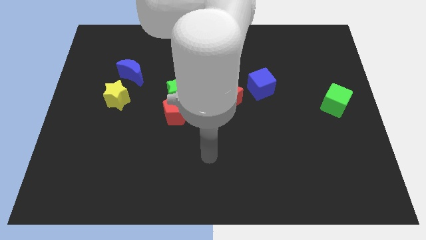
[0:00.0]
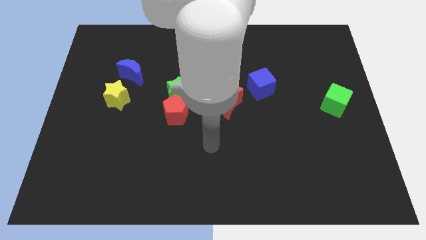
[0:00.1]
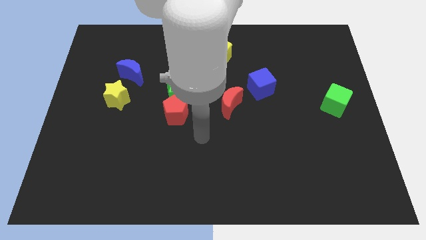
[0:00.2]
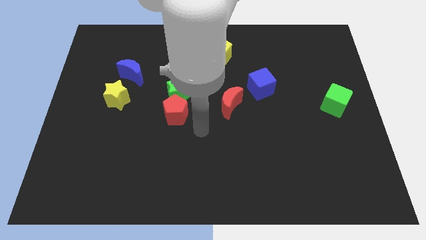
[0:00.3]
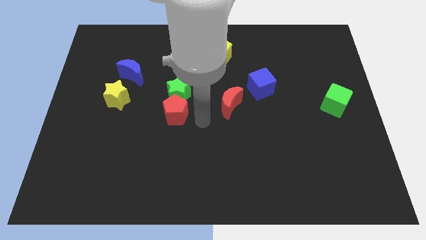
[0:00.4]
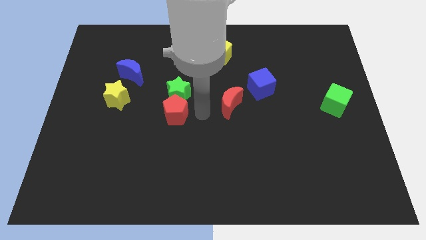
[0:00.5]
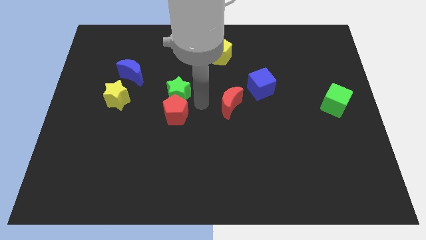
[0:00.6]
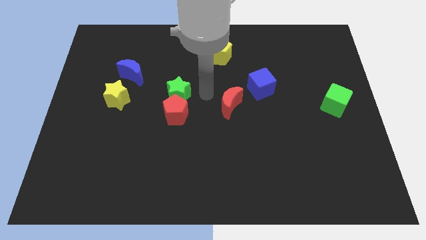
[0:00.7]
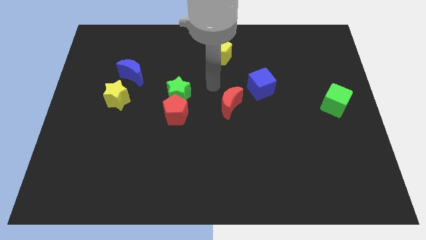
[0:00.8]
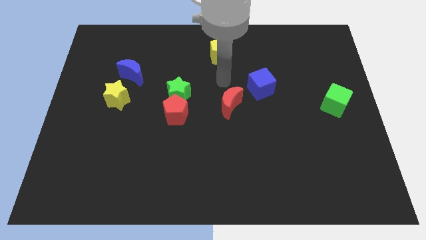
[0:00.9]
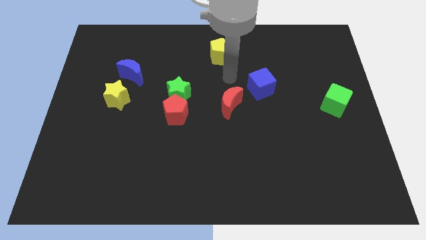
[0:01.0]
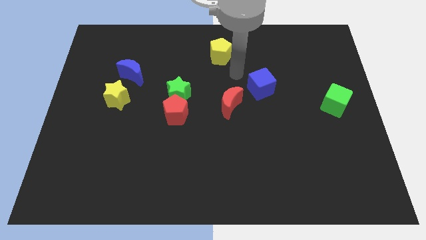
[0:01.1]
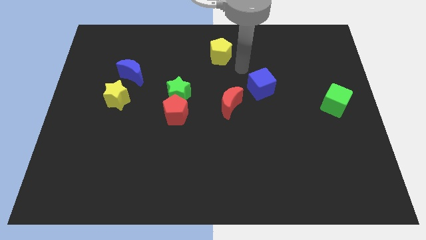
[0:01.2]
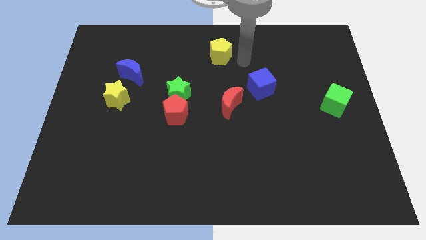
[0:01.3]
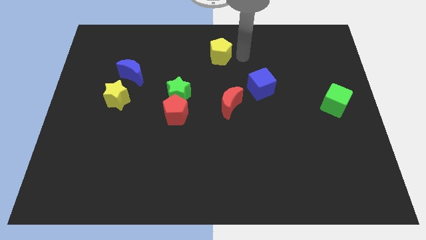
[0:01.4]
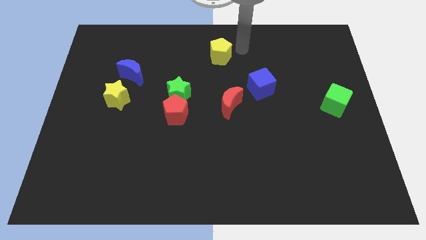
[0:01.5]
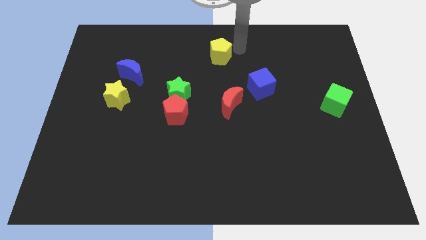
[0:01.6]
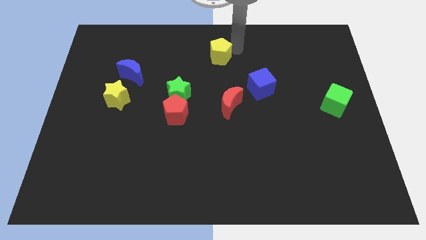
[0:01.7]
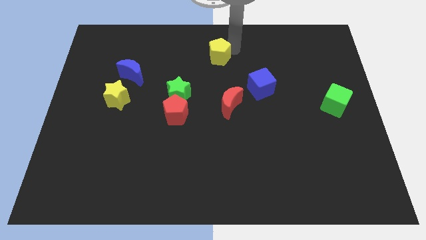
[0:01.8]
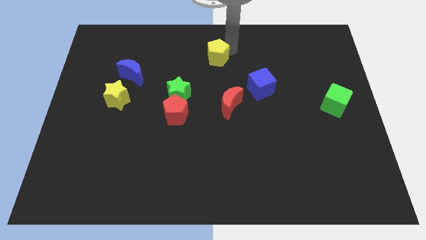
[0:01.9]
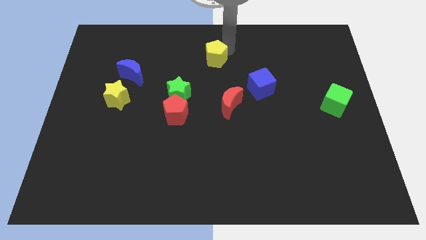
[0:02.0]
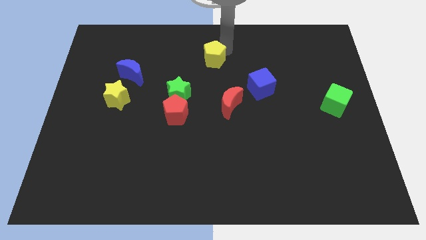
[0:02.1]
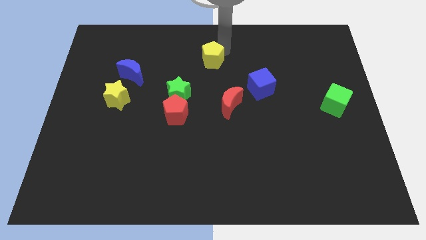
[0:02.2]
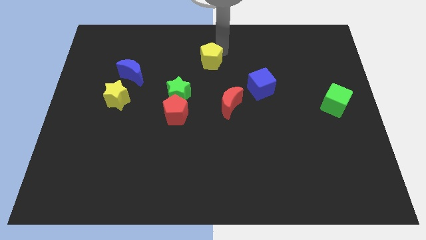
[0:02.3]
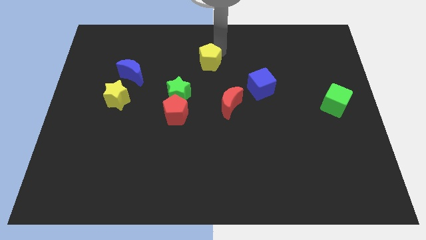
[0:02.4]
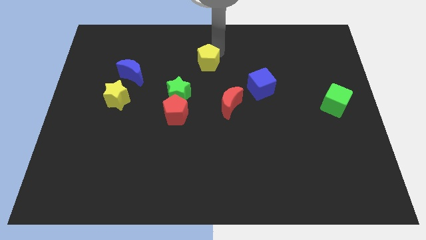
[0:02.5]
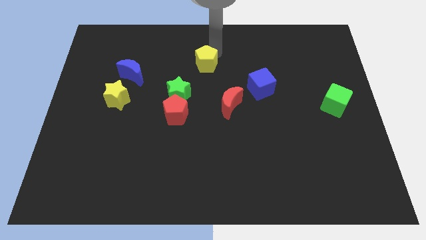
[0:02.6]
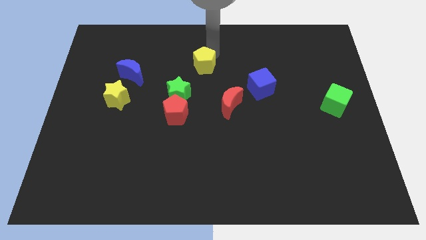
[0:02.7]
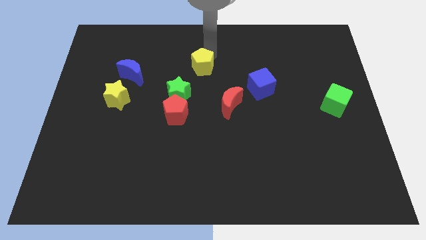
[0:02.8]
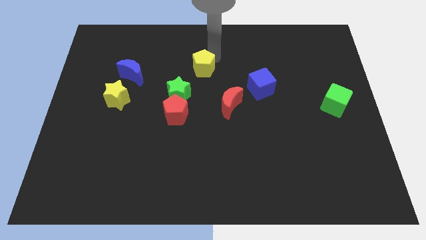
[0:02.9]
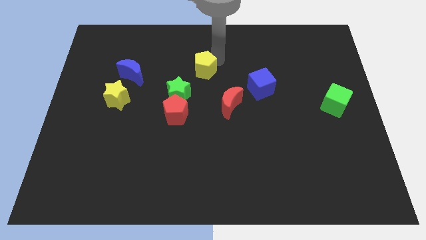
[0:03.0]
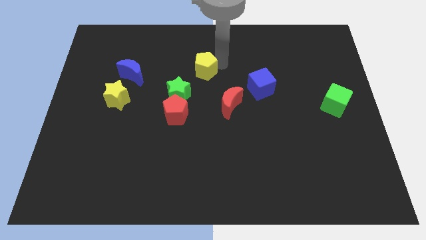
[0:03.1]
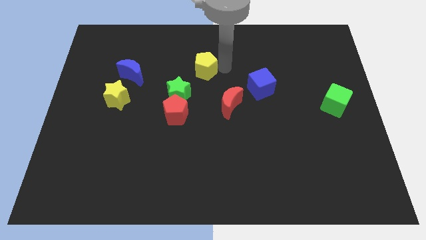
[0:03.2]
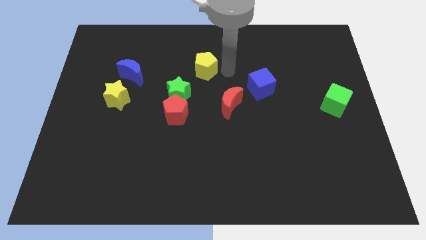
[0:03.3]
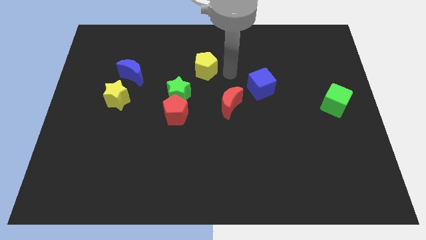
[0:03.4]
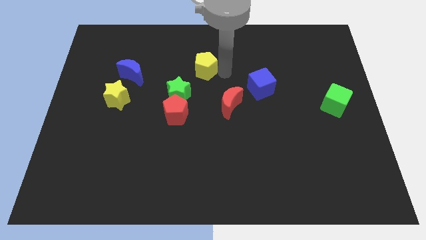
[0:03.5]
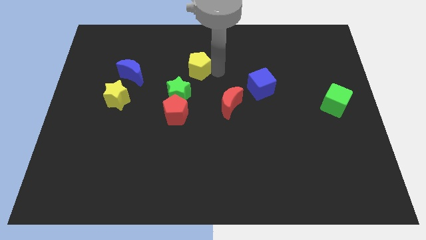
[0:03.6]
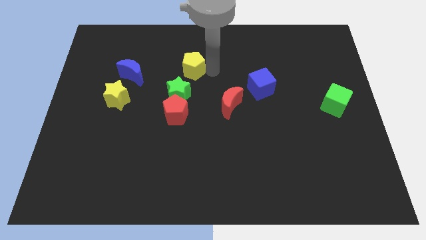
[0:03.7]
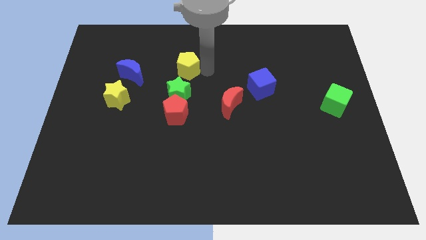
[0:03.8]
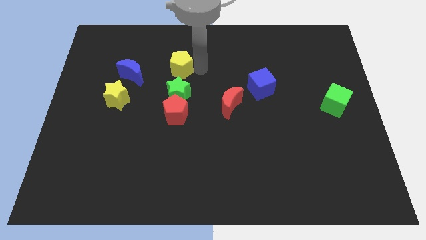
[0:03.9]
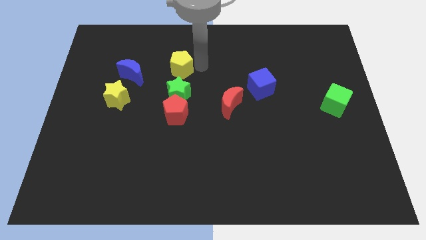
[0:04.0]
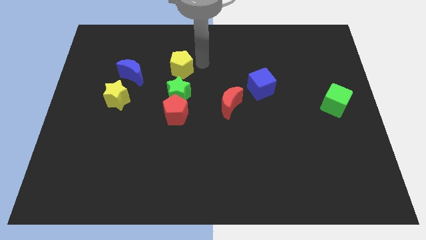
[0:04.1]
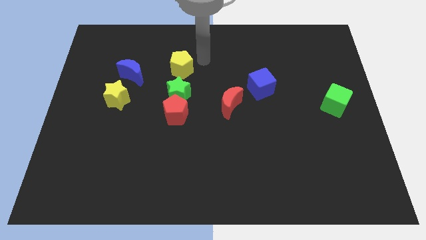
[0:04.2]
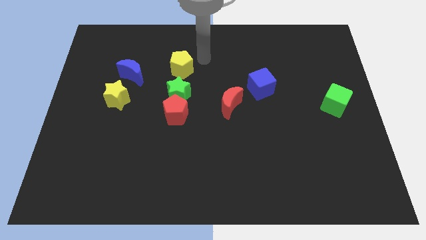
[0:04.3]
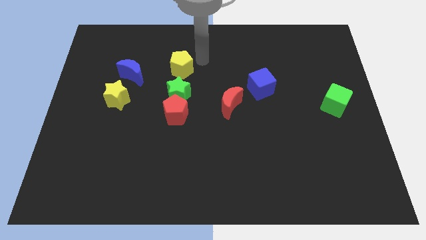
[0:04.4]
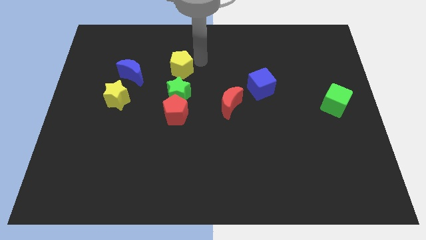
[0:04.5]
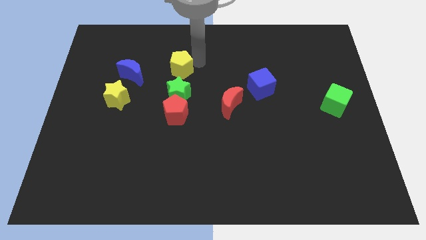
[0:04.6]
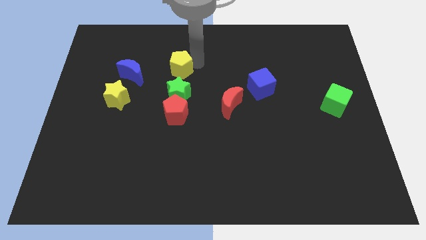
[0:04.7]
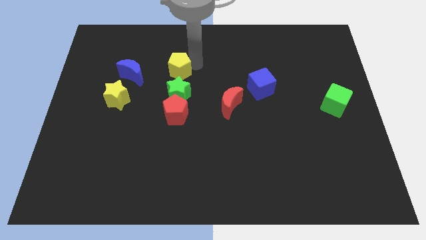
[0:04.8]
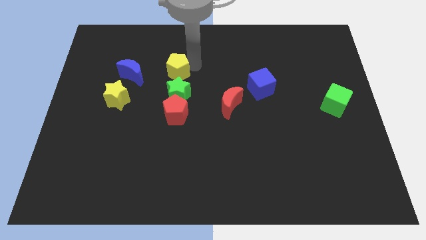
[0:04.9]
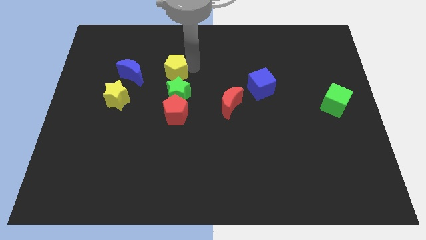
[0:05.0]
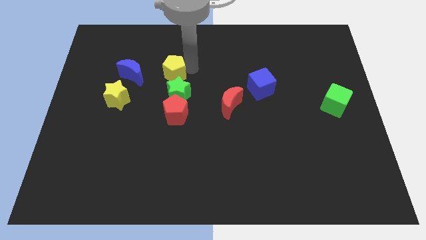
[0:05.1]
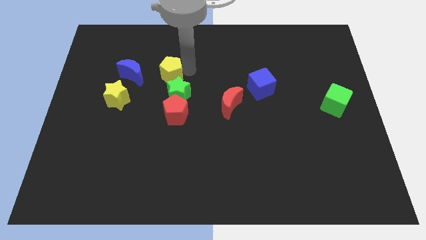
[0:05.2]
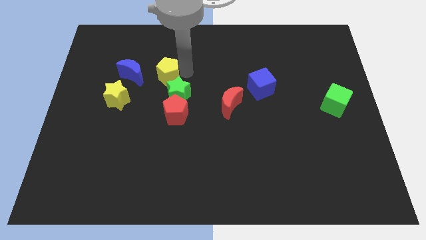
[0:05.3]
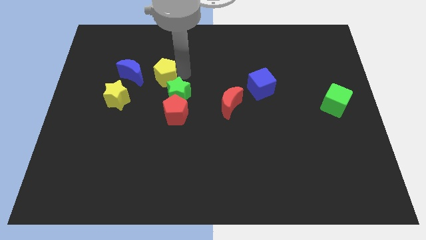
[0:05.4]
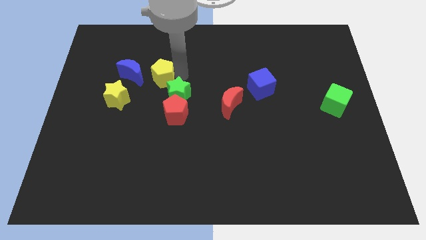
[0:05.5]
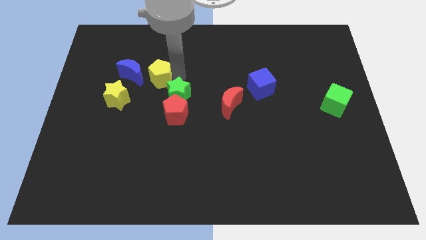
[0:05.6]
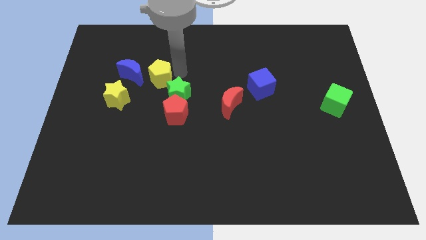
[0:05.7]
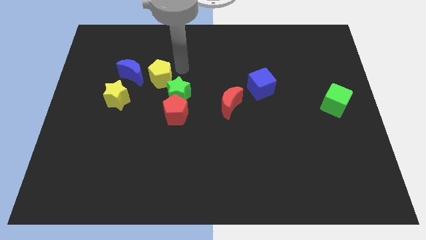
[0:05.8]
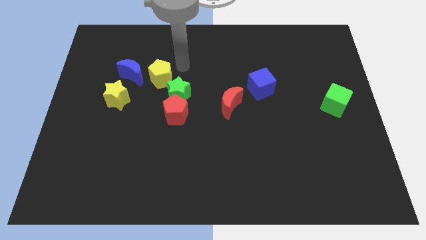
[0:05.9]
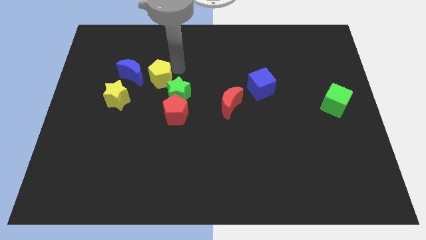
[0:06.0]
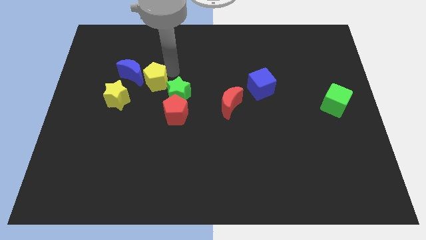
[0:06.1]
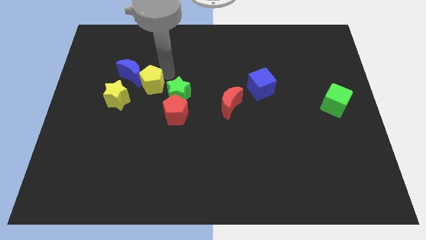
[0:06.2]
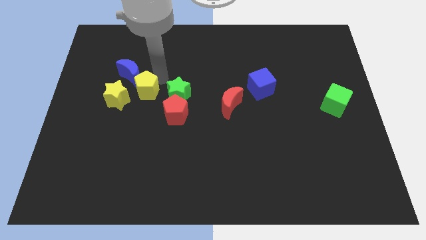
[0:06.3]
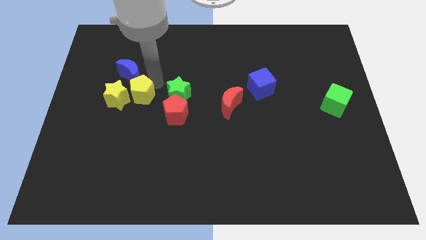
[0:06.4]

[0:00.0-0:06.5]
push the yellow pentagon close to the yellow star

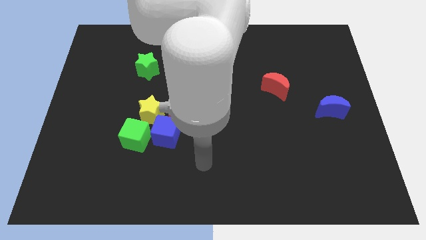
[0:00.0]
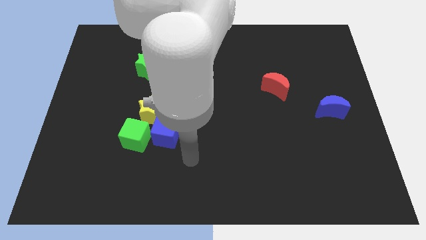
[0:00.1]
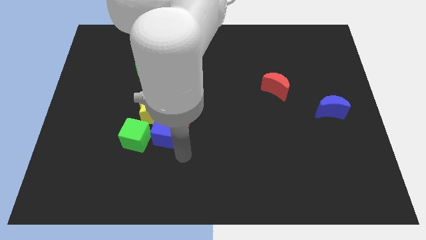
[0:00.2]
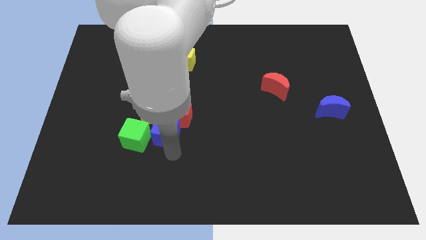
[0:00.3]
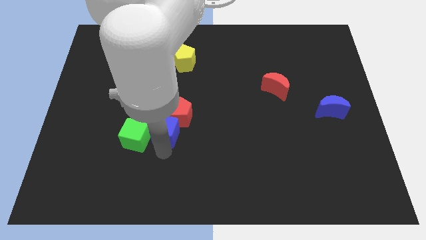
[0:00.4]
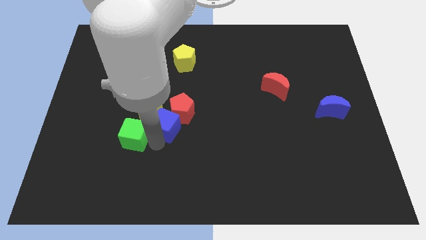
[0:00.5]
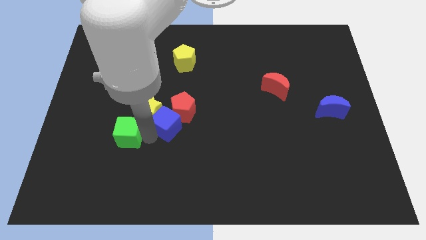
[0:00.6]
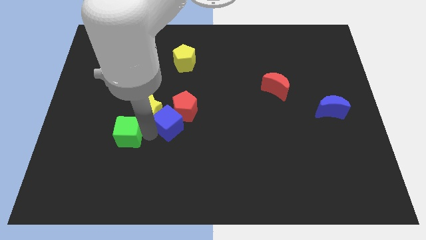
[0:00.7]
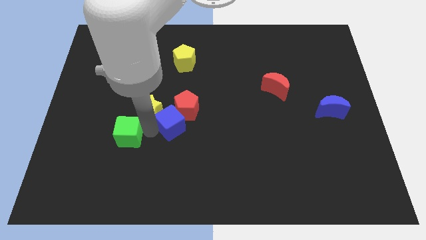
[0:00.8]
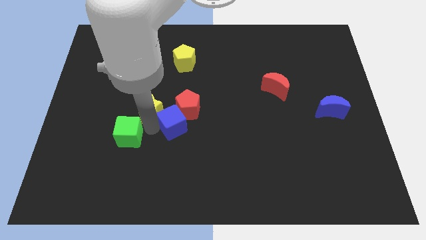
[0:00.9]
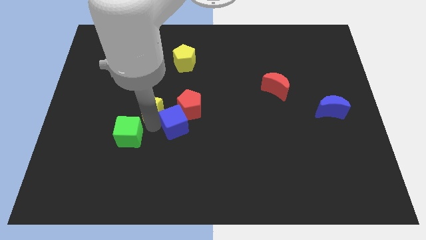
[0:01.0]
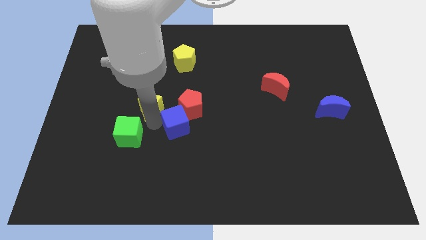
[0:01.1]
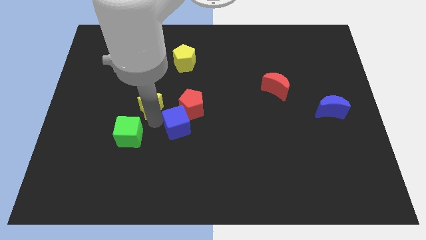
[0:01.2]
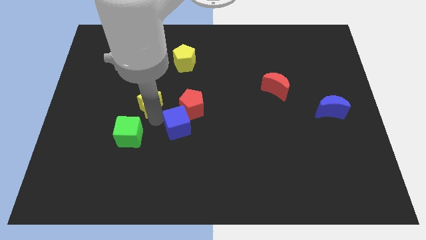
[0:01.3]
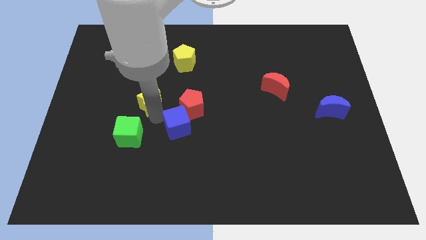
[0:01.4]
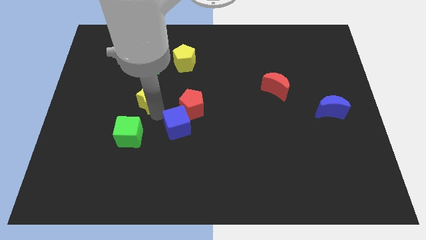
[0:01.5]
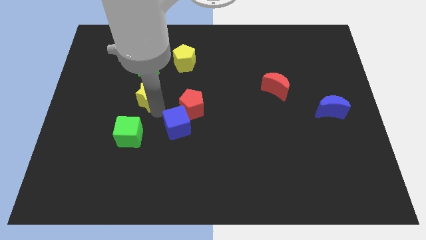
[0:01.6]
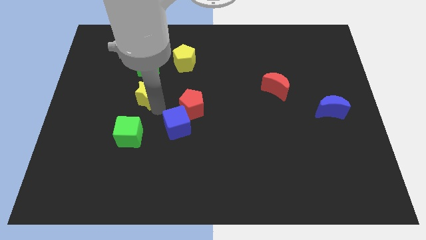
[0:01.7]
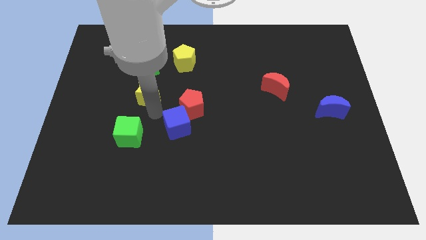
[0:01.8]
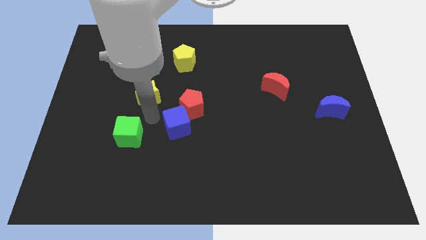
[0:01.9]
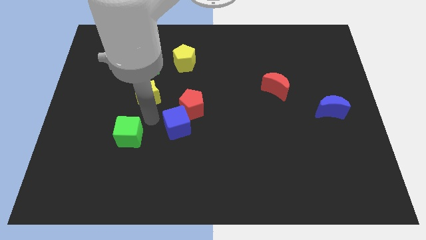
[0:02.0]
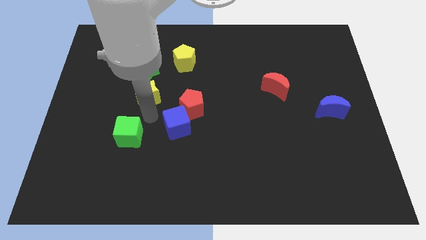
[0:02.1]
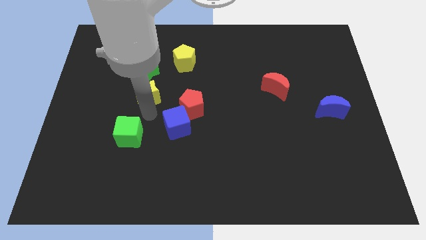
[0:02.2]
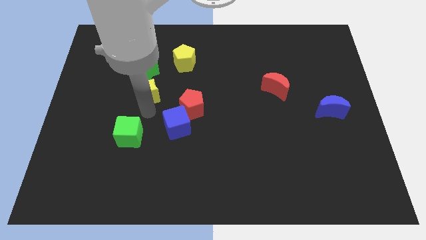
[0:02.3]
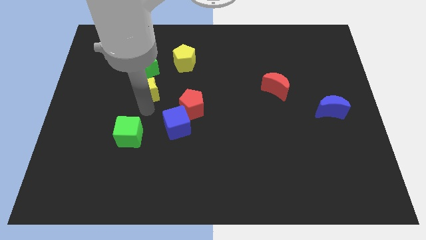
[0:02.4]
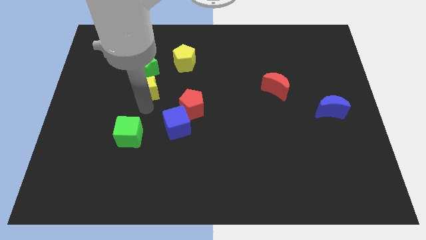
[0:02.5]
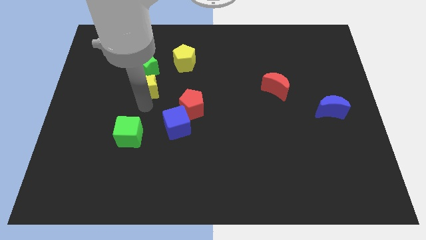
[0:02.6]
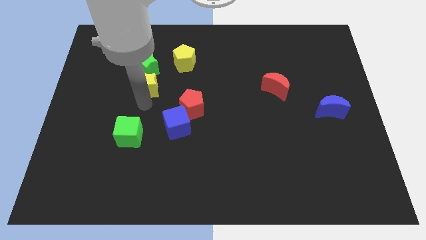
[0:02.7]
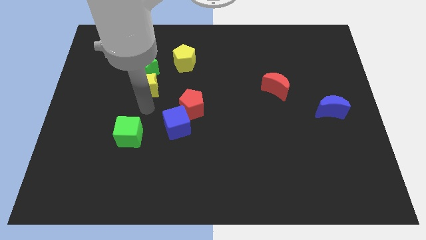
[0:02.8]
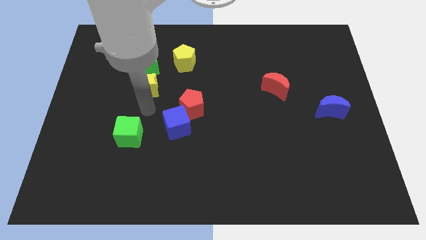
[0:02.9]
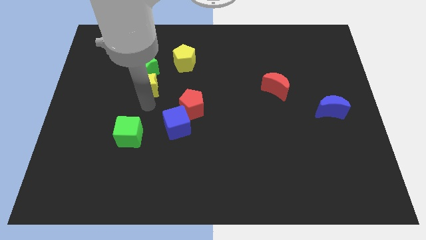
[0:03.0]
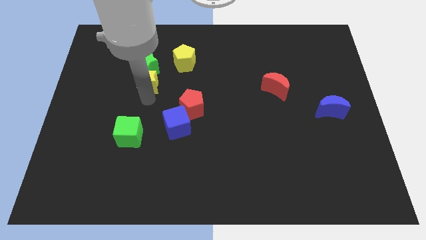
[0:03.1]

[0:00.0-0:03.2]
slide the yellow star towards the green star
